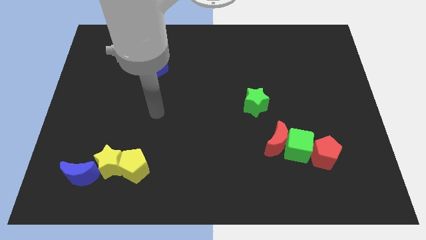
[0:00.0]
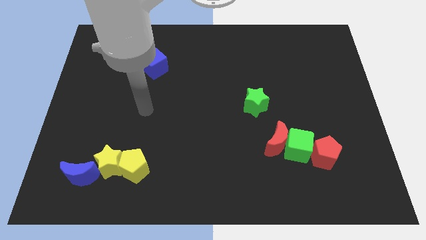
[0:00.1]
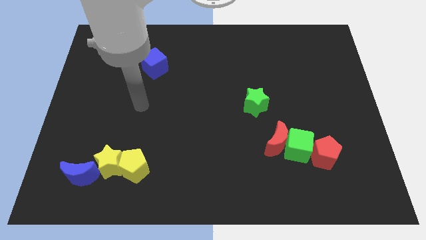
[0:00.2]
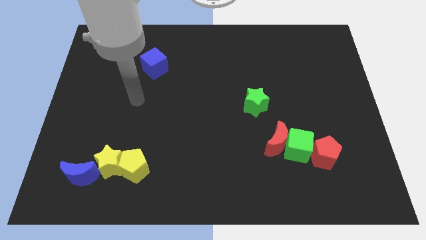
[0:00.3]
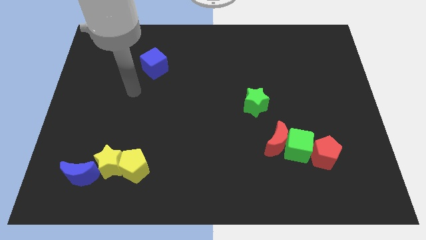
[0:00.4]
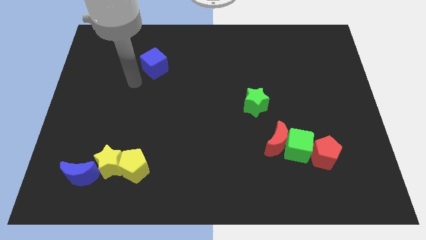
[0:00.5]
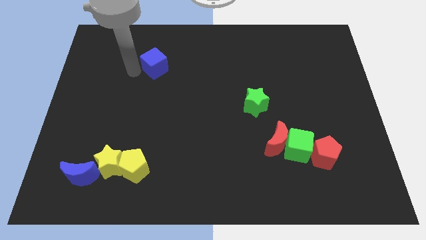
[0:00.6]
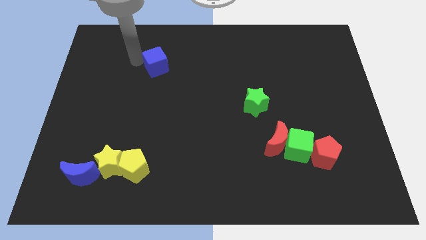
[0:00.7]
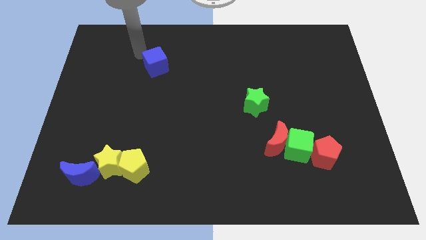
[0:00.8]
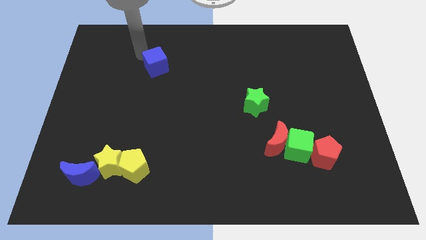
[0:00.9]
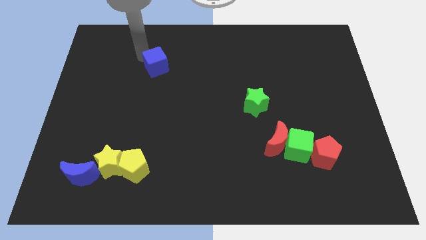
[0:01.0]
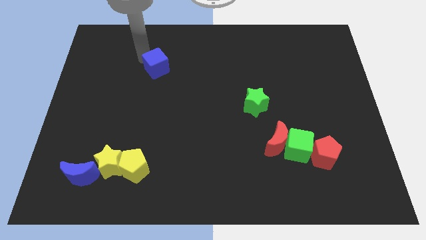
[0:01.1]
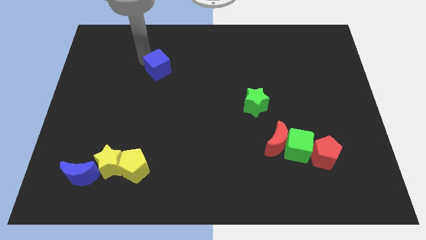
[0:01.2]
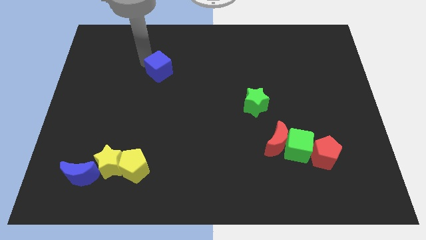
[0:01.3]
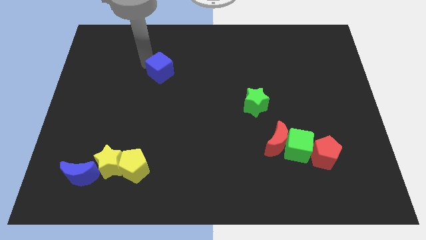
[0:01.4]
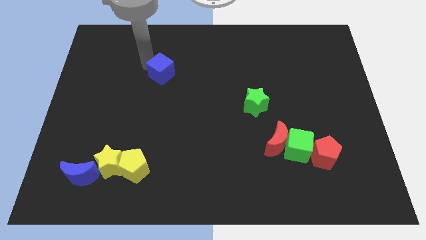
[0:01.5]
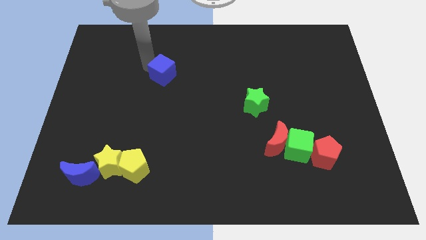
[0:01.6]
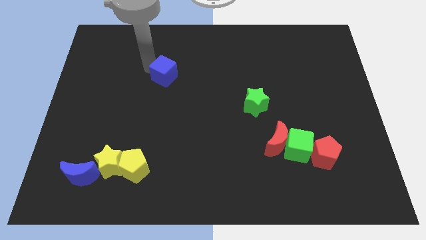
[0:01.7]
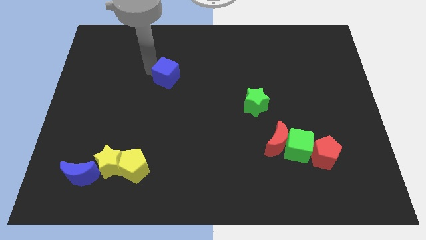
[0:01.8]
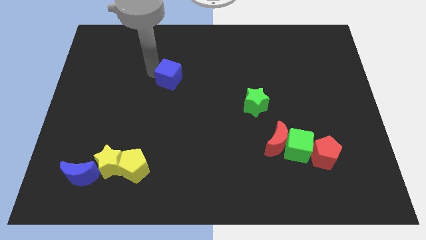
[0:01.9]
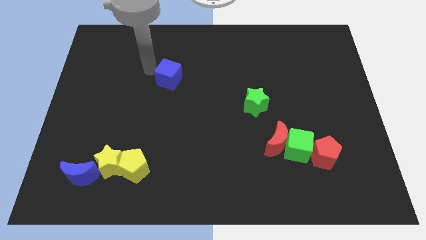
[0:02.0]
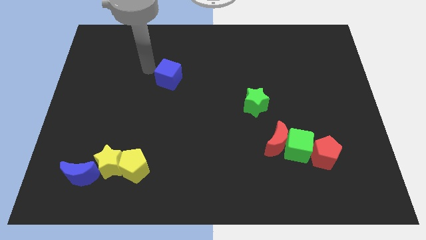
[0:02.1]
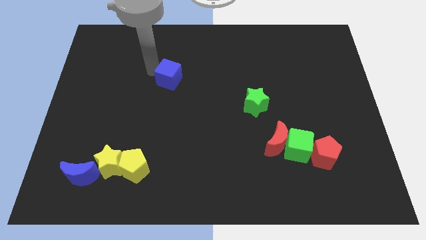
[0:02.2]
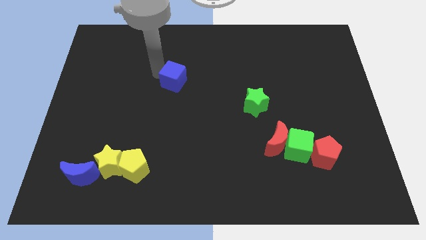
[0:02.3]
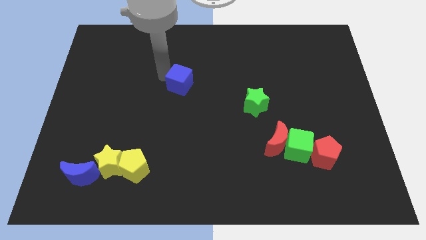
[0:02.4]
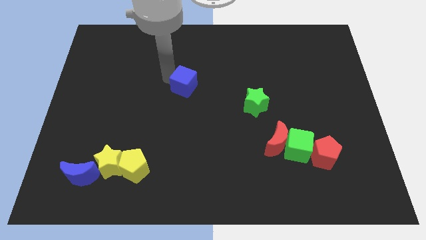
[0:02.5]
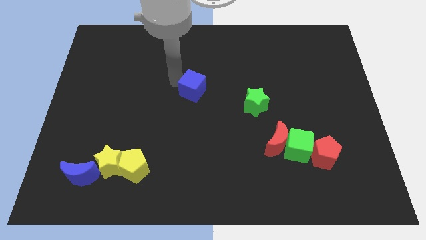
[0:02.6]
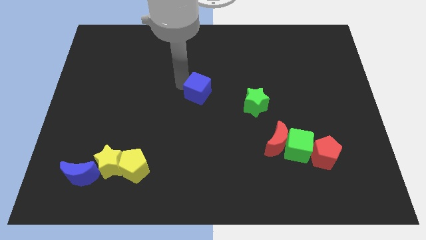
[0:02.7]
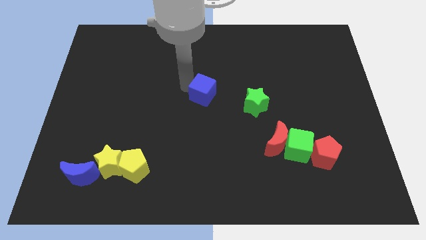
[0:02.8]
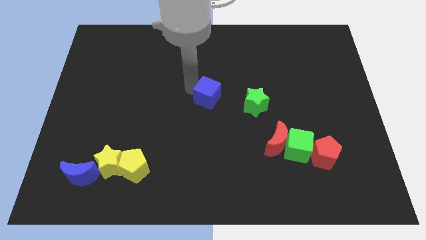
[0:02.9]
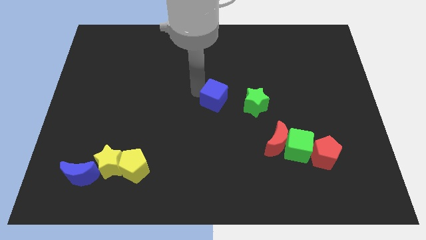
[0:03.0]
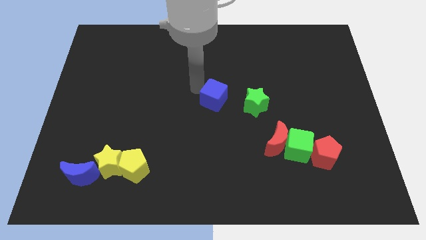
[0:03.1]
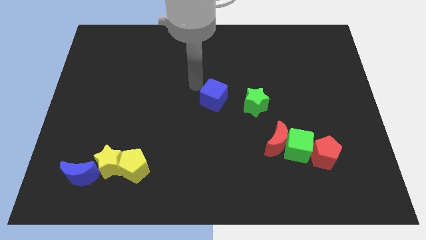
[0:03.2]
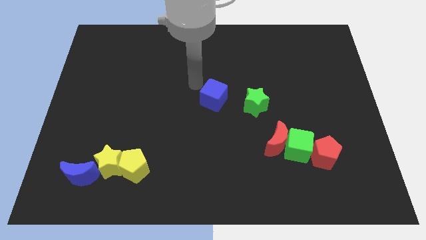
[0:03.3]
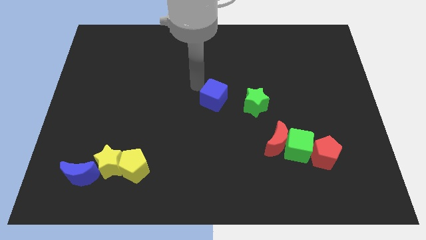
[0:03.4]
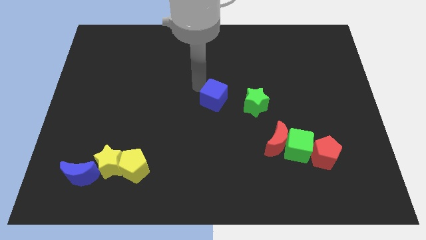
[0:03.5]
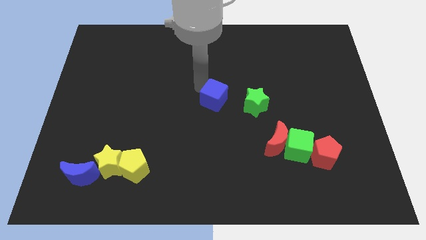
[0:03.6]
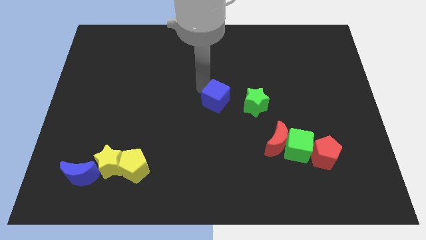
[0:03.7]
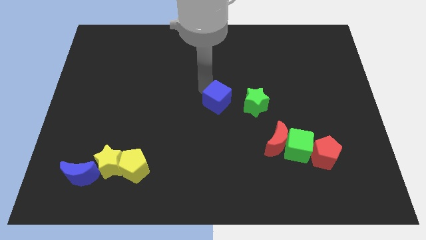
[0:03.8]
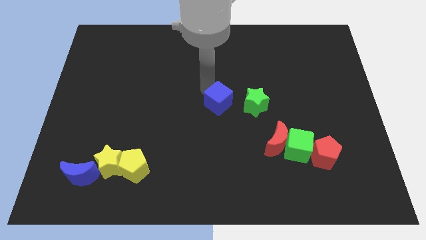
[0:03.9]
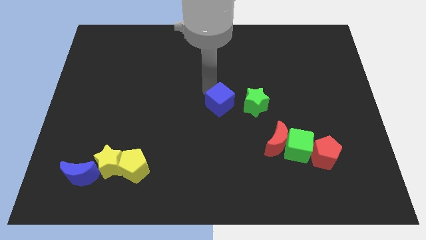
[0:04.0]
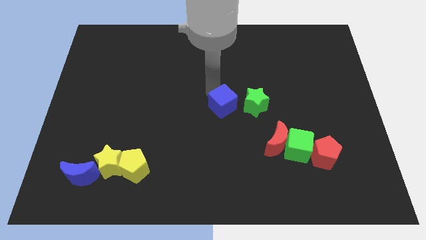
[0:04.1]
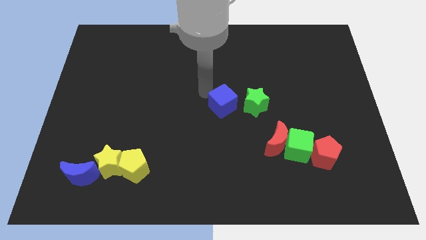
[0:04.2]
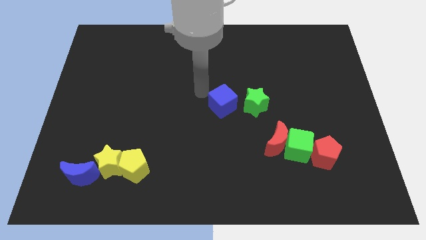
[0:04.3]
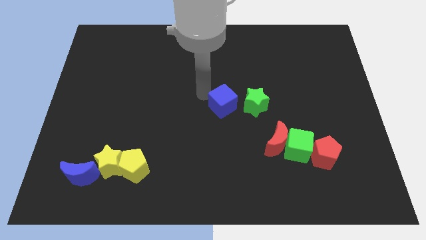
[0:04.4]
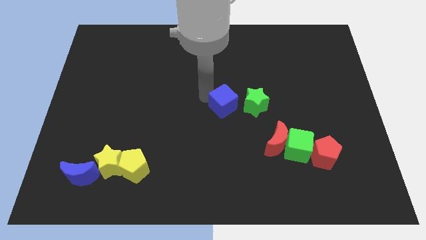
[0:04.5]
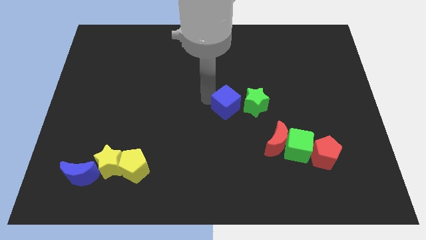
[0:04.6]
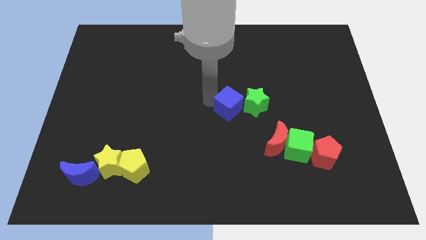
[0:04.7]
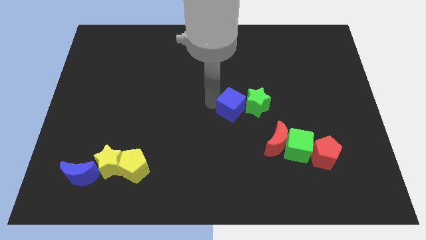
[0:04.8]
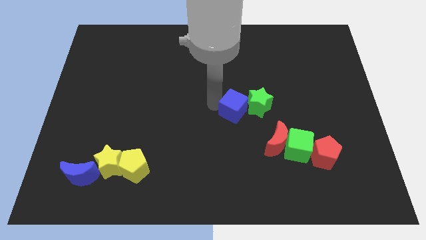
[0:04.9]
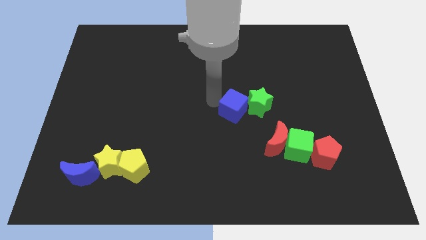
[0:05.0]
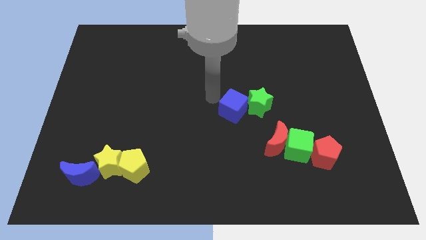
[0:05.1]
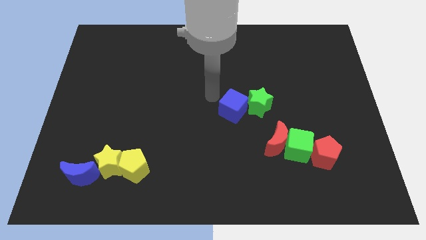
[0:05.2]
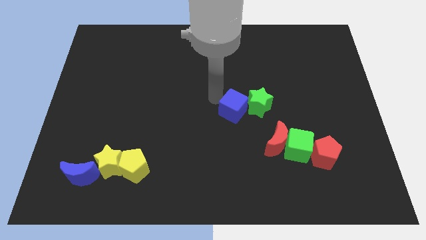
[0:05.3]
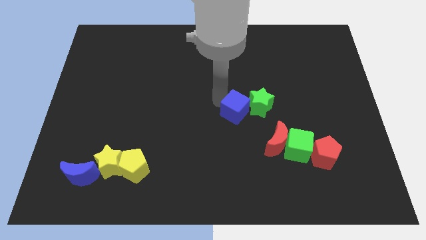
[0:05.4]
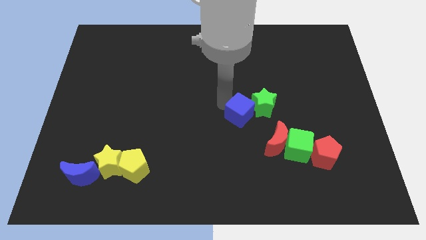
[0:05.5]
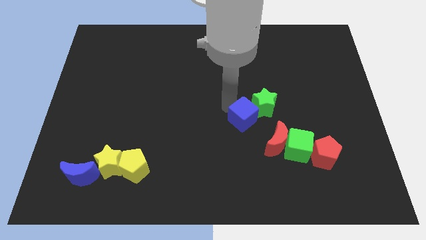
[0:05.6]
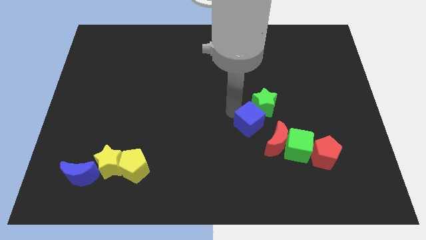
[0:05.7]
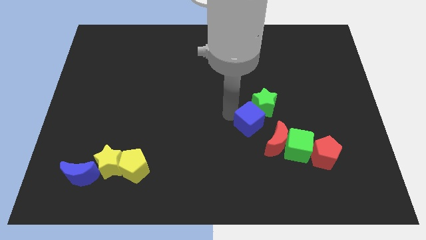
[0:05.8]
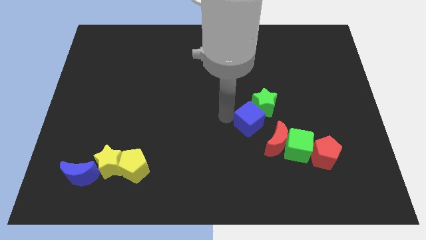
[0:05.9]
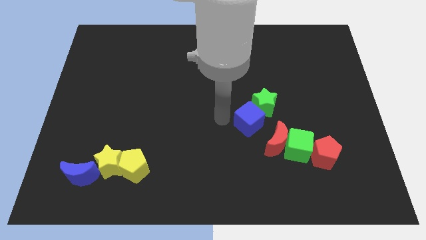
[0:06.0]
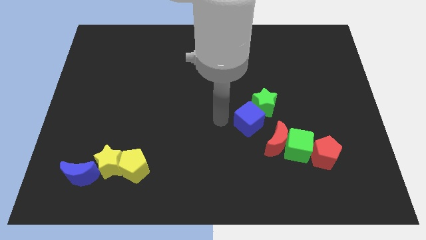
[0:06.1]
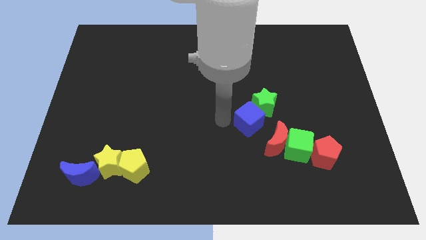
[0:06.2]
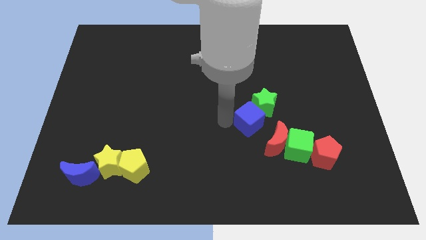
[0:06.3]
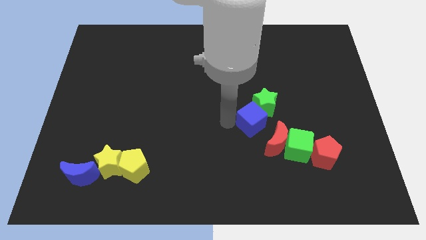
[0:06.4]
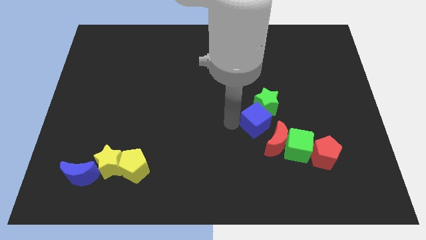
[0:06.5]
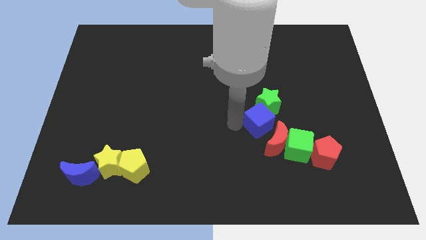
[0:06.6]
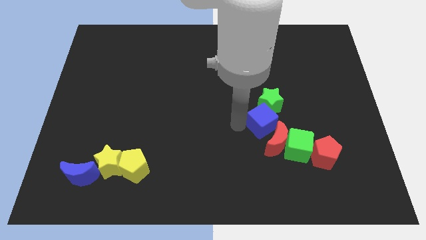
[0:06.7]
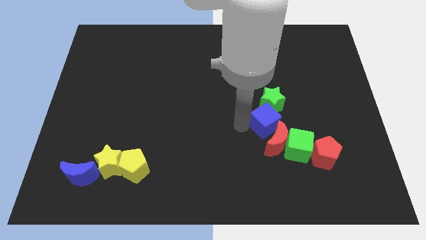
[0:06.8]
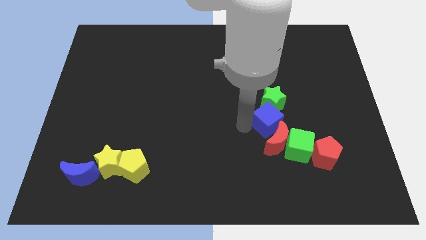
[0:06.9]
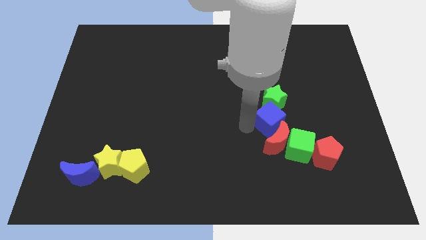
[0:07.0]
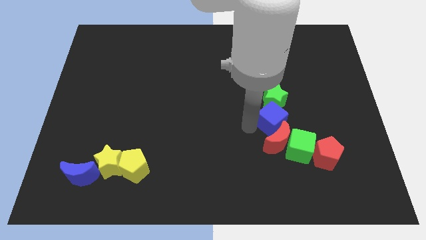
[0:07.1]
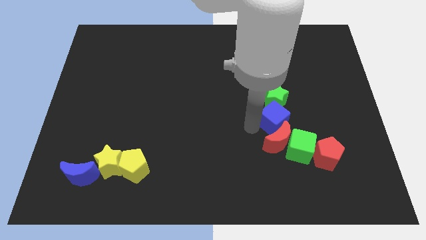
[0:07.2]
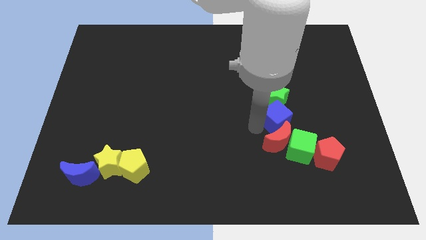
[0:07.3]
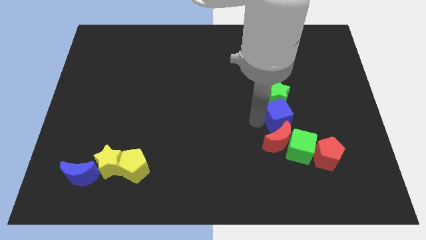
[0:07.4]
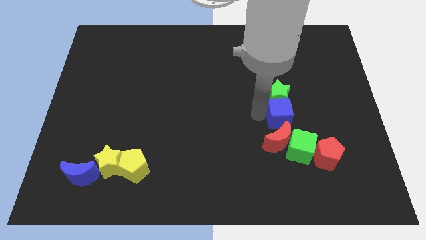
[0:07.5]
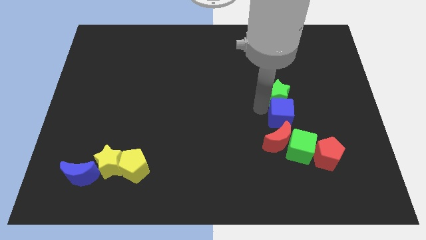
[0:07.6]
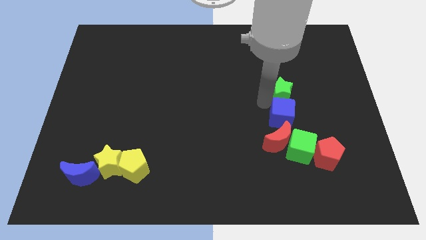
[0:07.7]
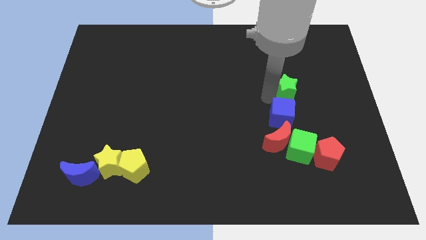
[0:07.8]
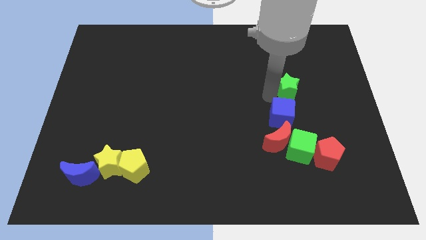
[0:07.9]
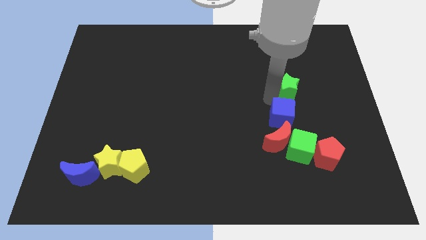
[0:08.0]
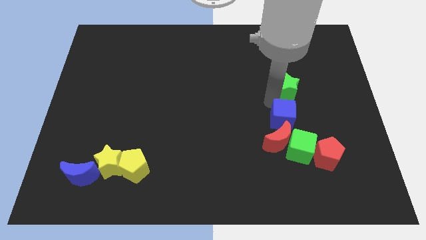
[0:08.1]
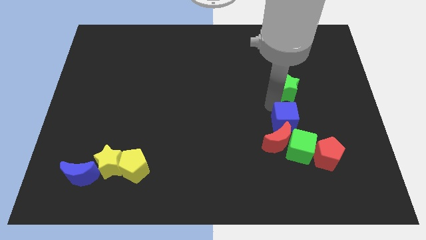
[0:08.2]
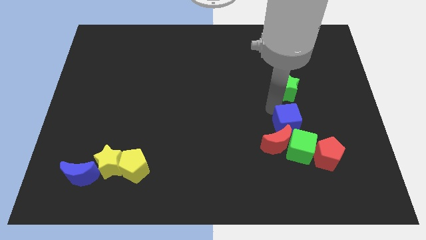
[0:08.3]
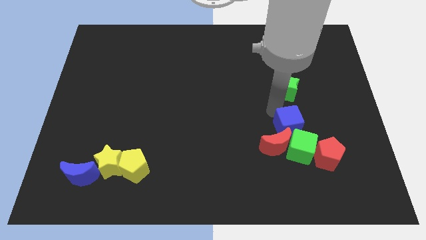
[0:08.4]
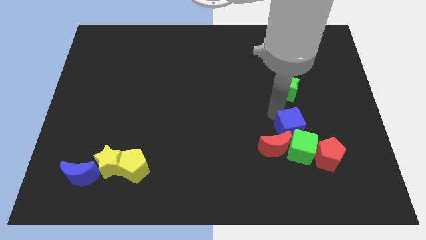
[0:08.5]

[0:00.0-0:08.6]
slide the blue cube next to the green cube
